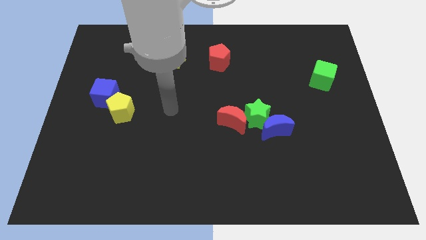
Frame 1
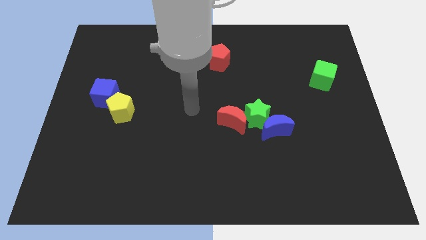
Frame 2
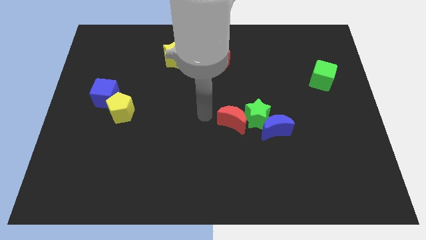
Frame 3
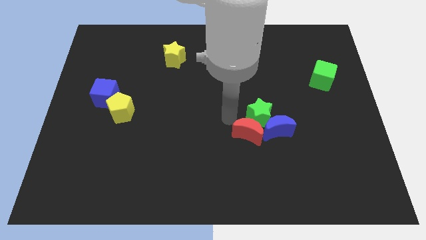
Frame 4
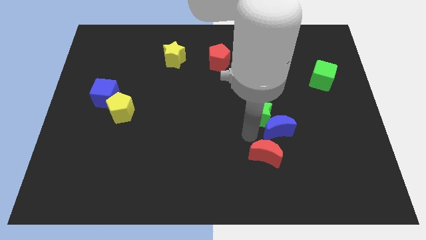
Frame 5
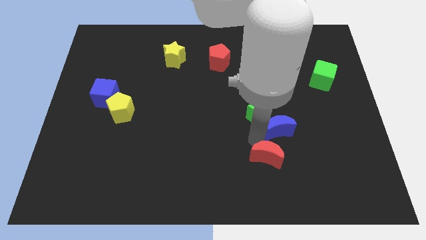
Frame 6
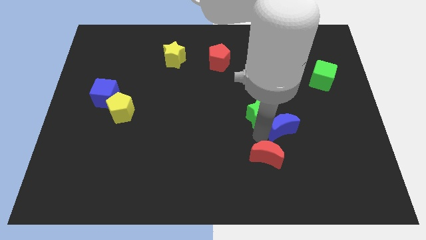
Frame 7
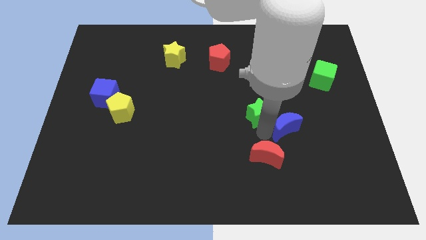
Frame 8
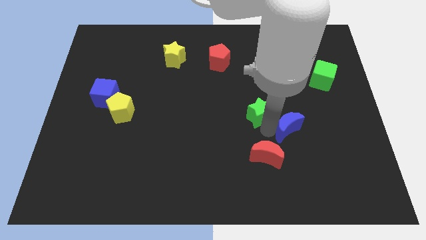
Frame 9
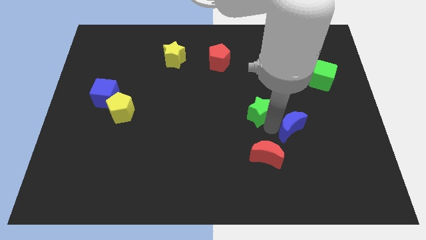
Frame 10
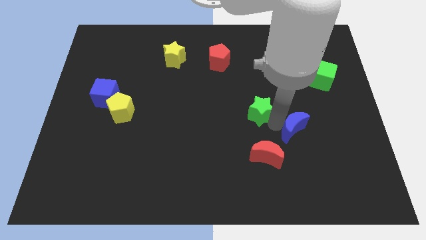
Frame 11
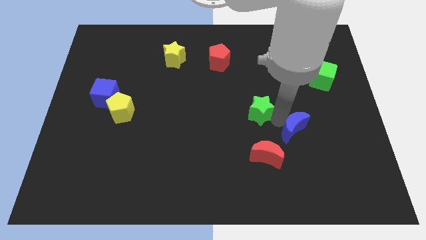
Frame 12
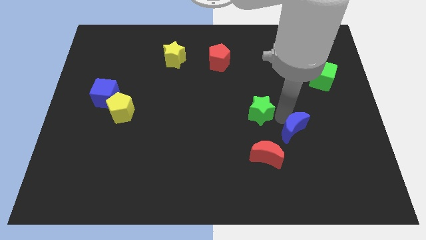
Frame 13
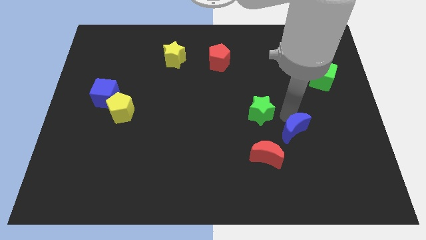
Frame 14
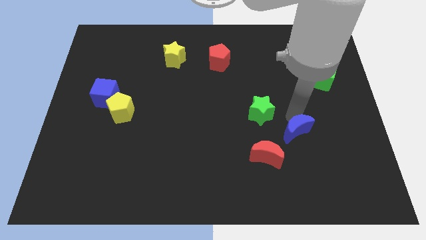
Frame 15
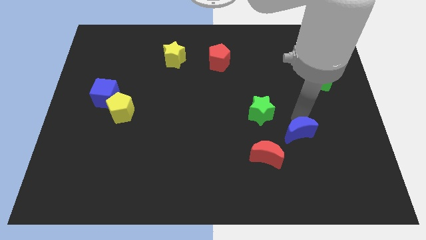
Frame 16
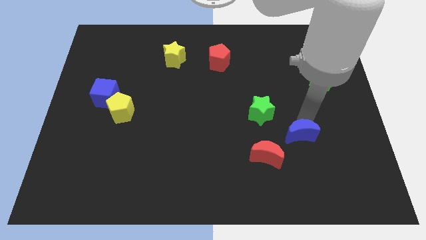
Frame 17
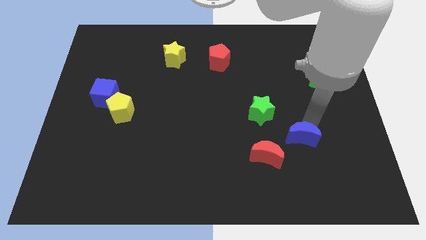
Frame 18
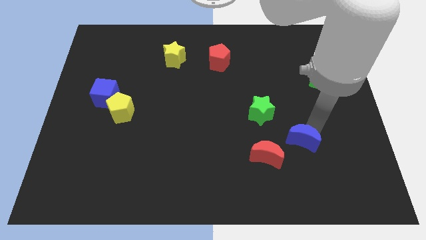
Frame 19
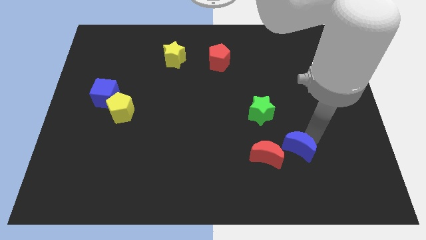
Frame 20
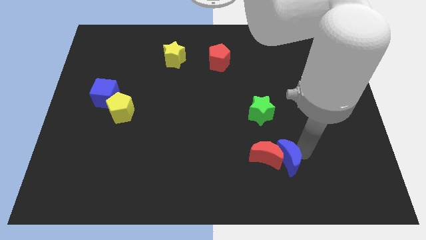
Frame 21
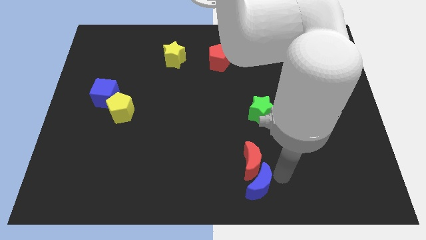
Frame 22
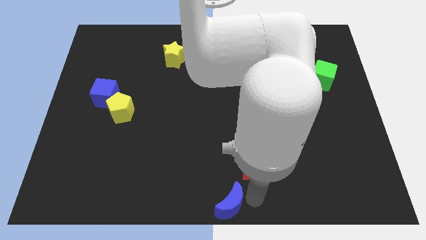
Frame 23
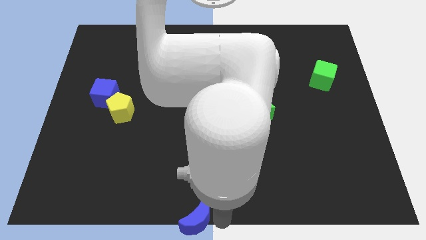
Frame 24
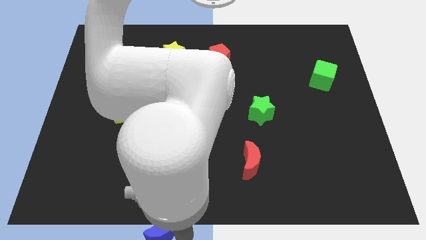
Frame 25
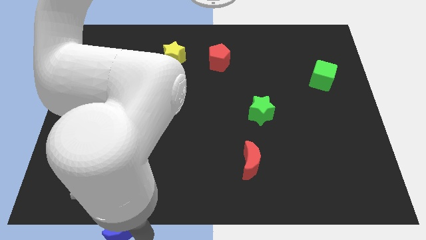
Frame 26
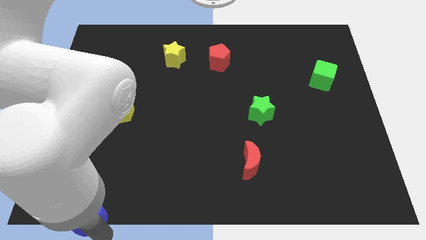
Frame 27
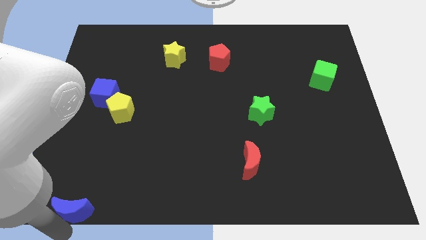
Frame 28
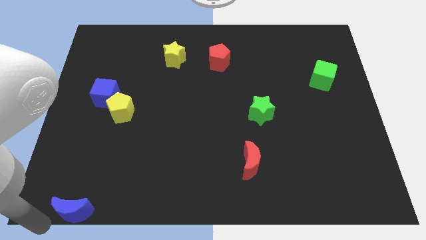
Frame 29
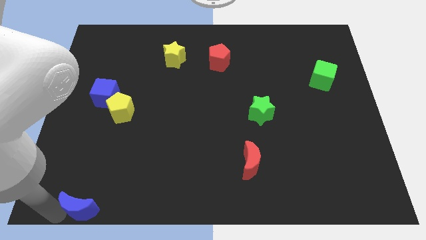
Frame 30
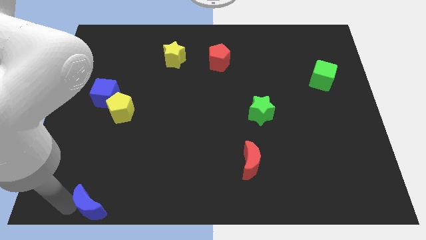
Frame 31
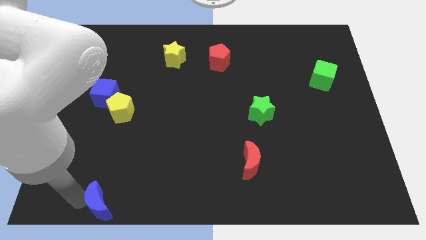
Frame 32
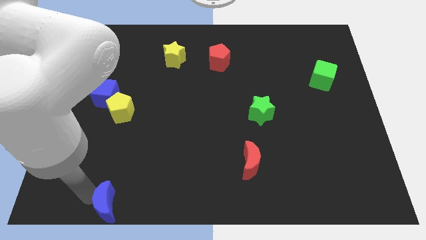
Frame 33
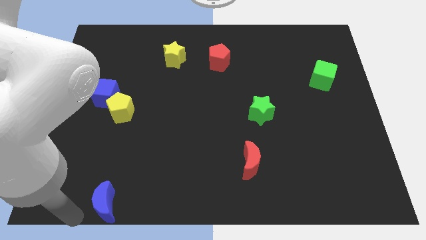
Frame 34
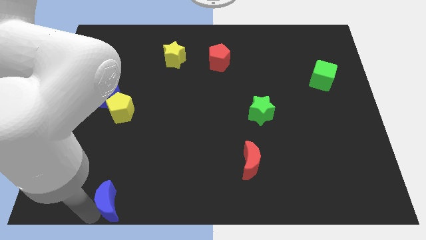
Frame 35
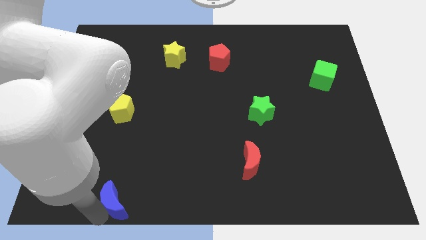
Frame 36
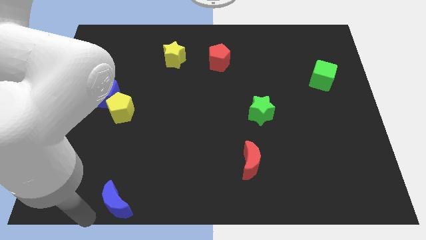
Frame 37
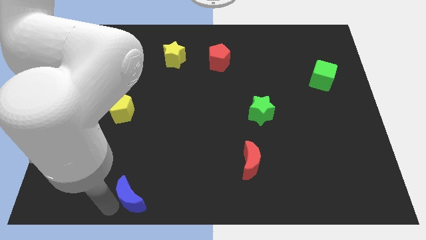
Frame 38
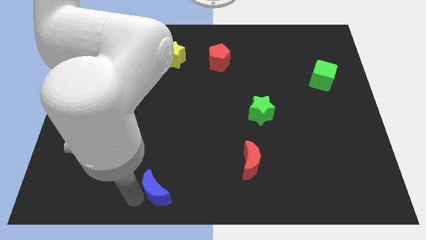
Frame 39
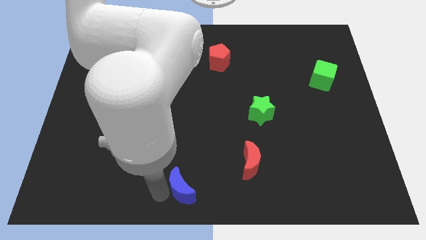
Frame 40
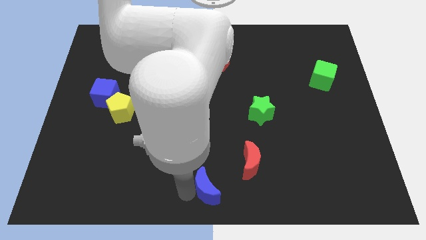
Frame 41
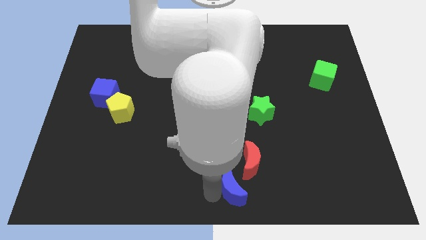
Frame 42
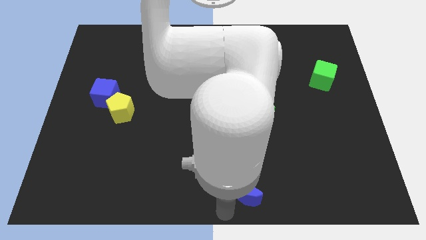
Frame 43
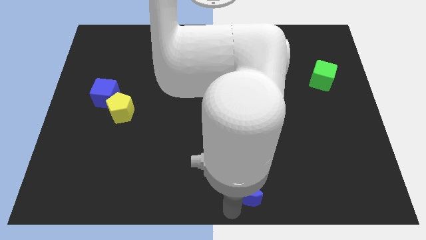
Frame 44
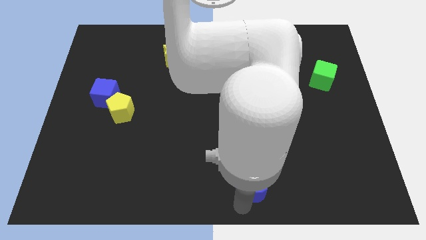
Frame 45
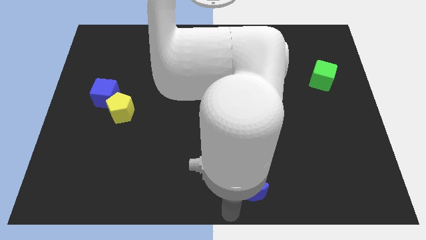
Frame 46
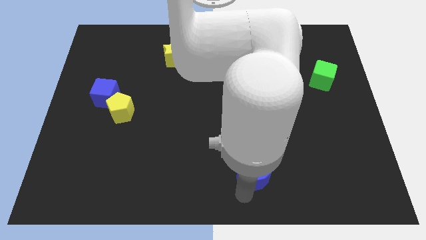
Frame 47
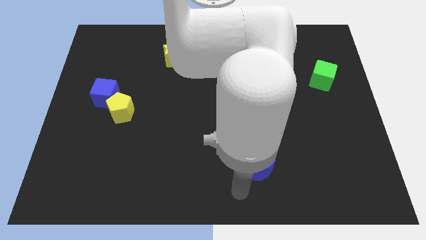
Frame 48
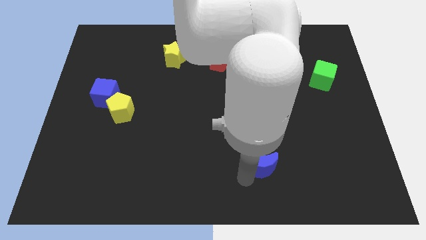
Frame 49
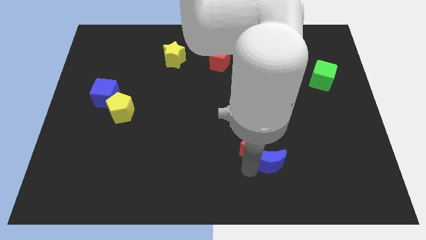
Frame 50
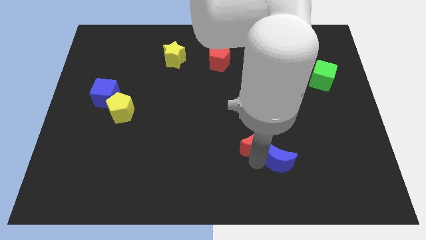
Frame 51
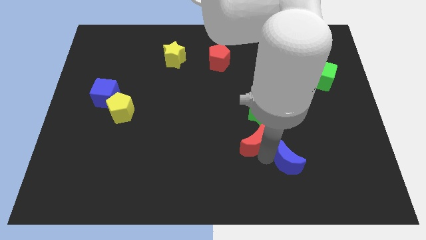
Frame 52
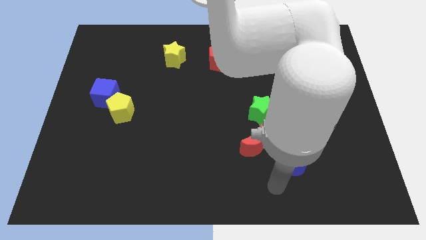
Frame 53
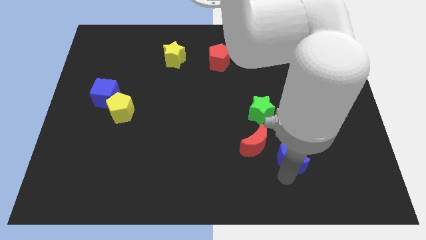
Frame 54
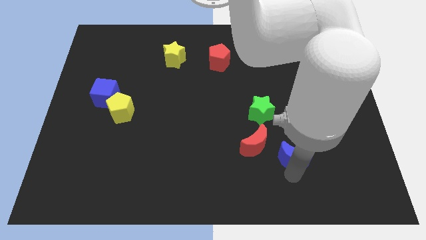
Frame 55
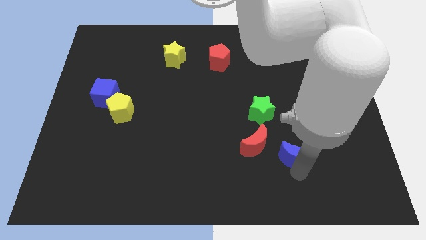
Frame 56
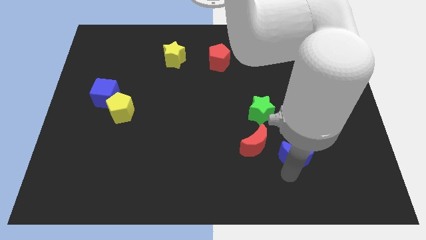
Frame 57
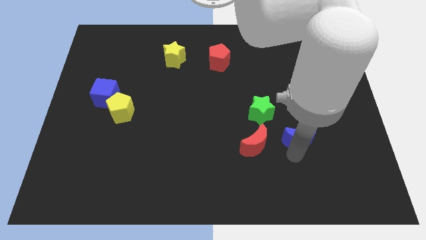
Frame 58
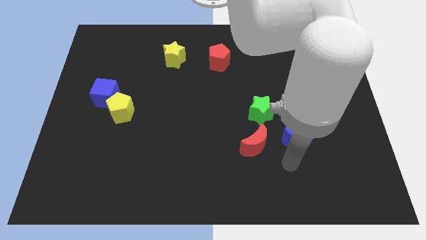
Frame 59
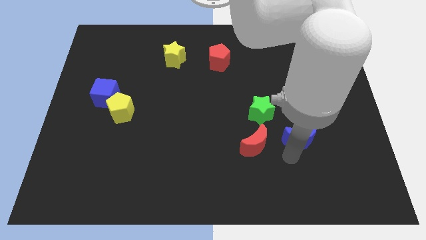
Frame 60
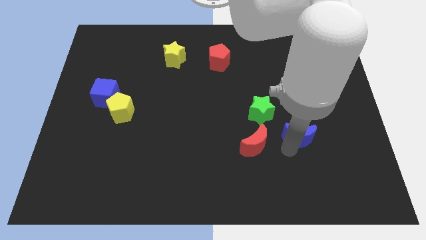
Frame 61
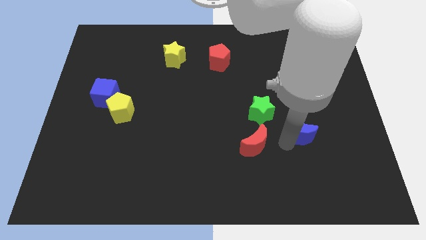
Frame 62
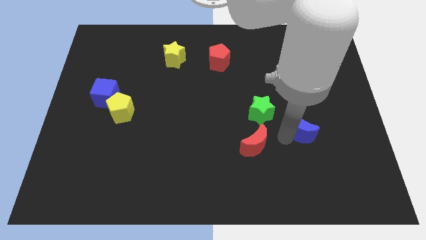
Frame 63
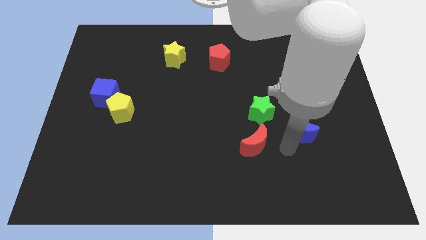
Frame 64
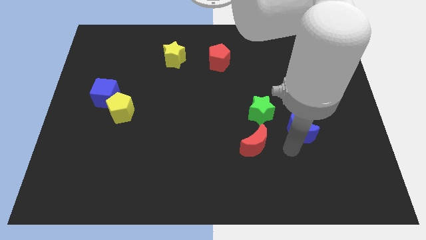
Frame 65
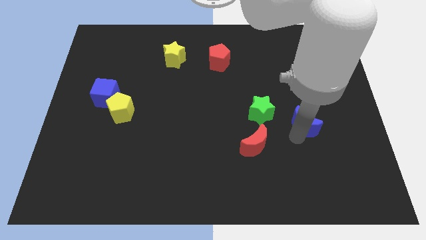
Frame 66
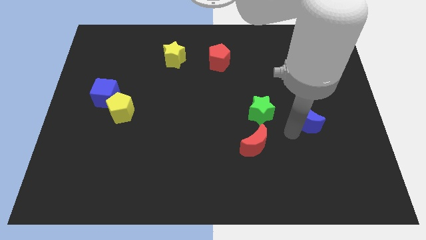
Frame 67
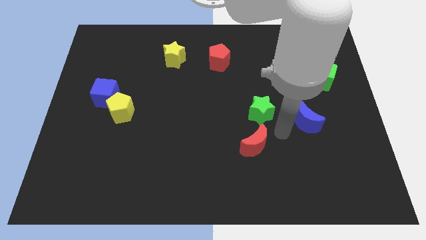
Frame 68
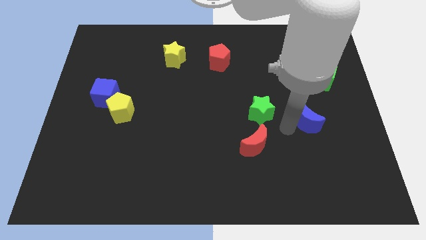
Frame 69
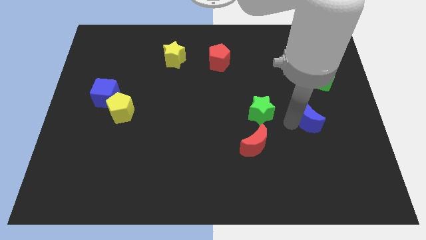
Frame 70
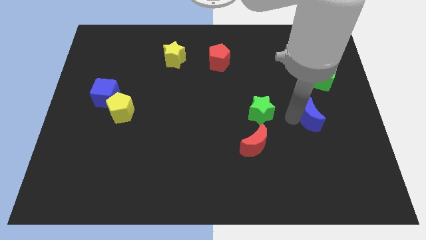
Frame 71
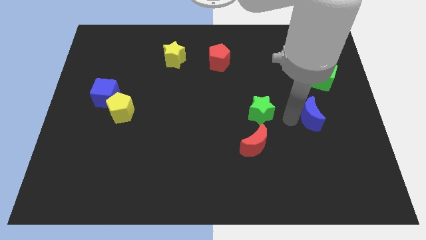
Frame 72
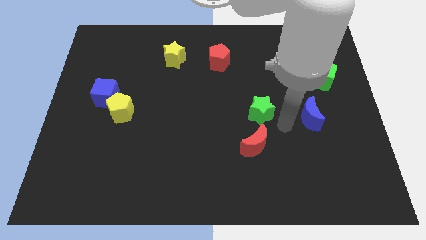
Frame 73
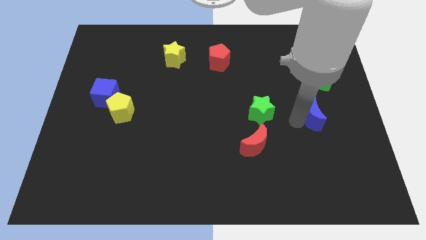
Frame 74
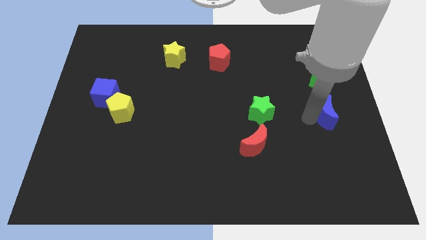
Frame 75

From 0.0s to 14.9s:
slide the blue moon to the center right
